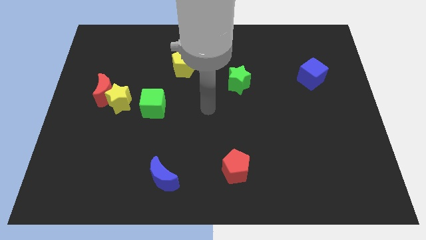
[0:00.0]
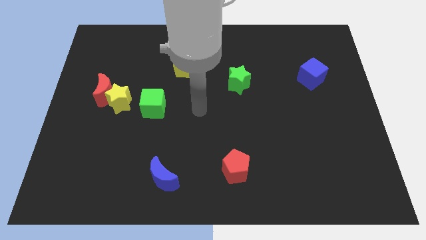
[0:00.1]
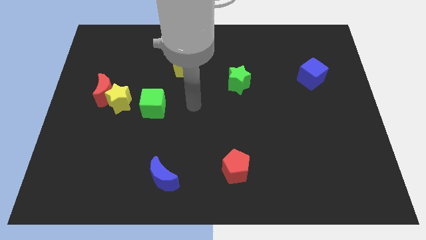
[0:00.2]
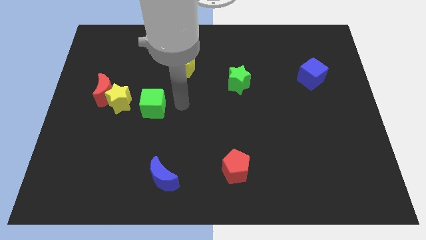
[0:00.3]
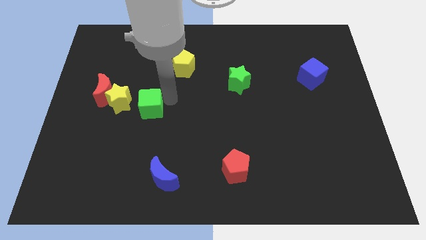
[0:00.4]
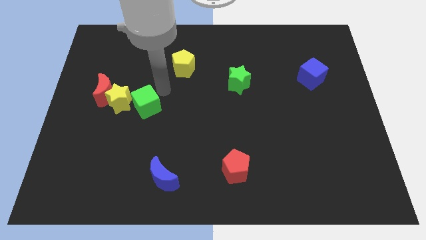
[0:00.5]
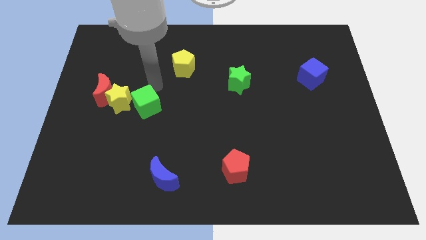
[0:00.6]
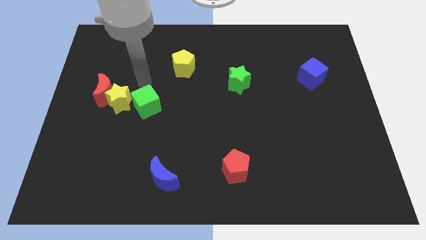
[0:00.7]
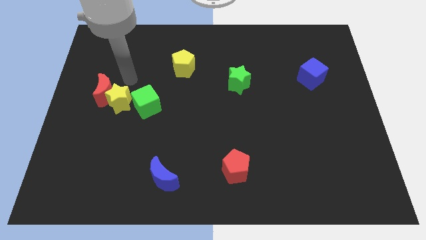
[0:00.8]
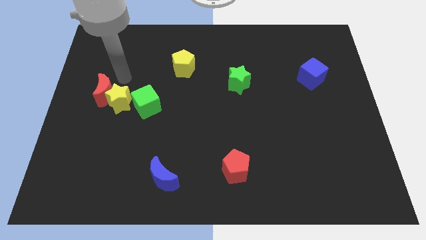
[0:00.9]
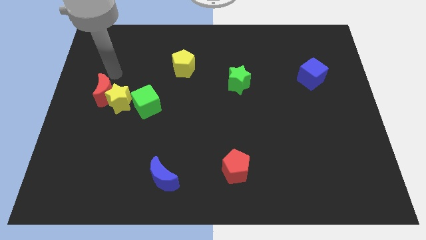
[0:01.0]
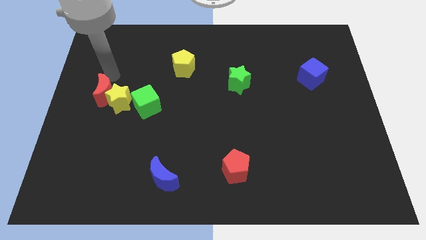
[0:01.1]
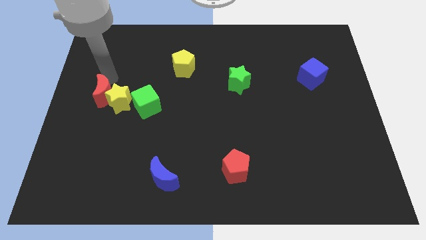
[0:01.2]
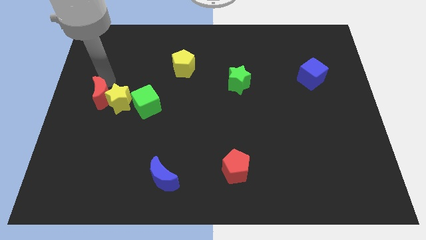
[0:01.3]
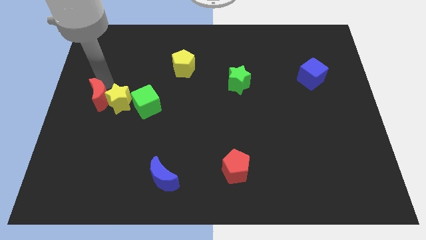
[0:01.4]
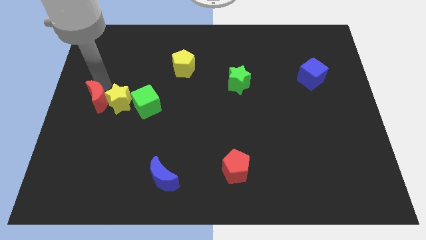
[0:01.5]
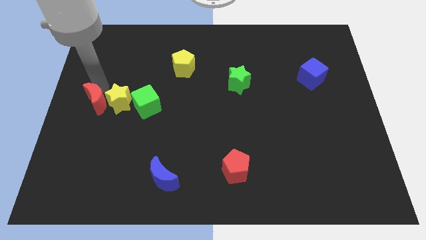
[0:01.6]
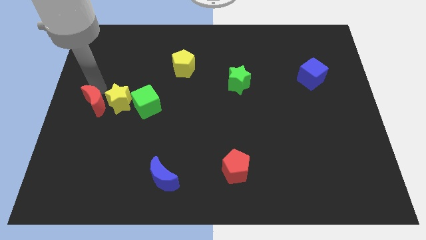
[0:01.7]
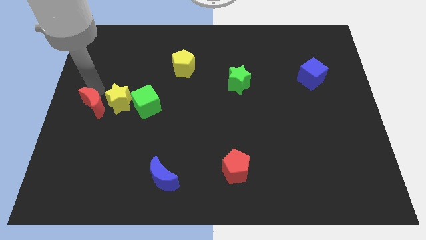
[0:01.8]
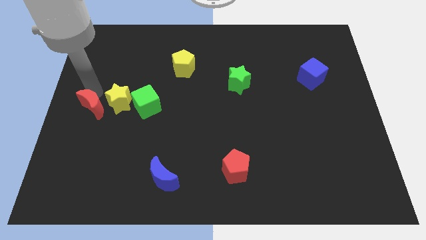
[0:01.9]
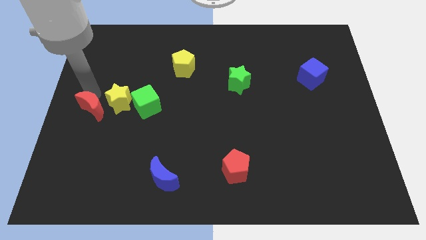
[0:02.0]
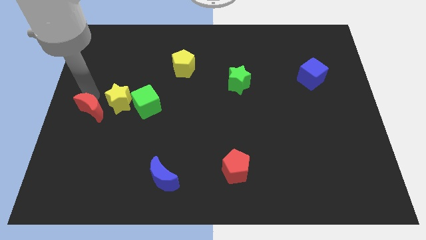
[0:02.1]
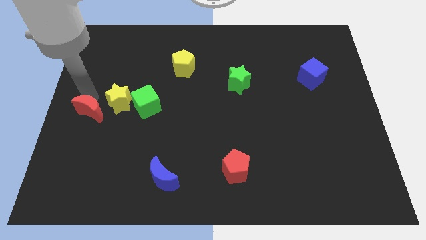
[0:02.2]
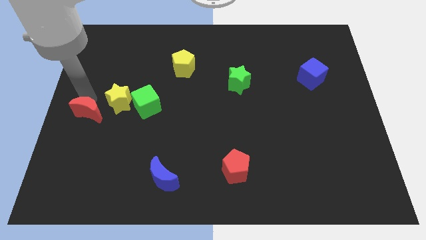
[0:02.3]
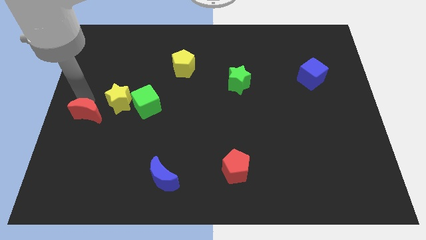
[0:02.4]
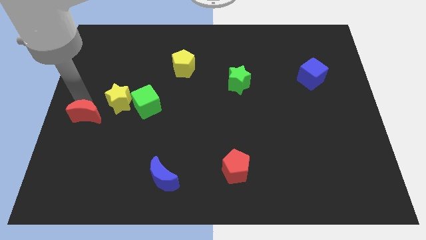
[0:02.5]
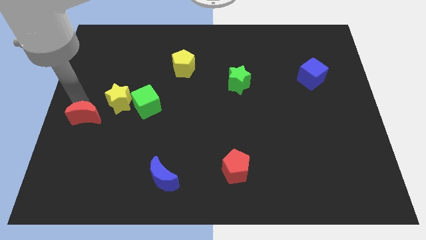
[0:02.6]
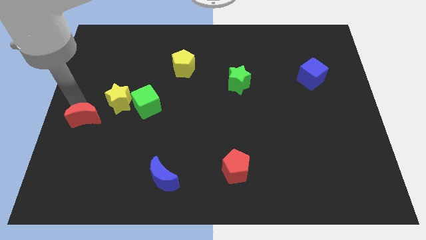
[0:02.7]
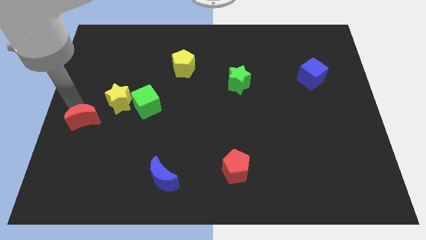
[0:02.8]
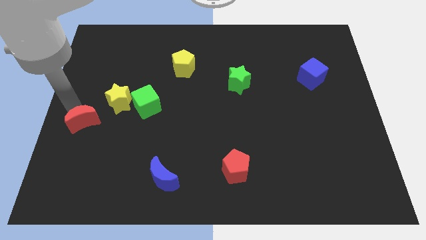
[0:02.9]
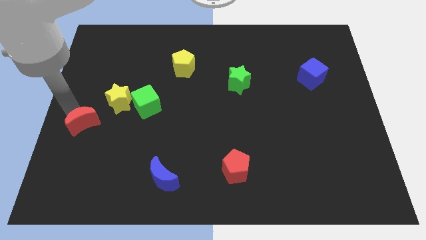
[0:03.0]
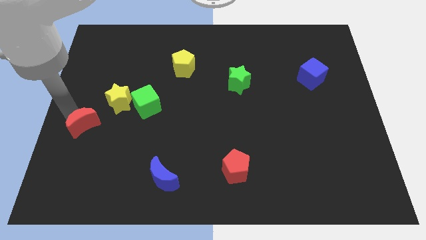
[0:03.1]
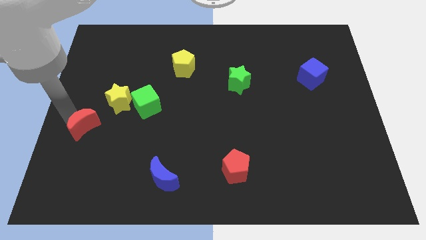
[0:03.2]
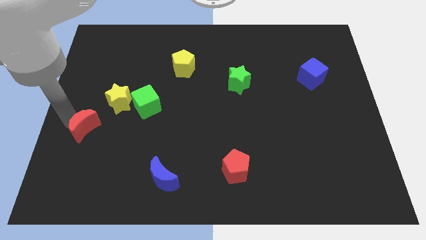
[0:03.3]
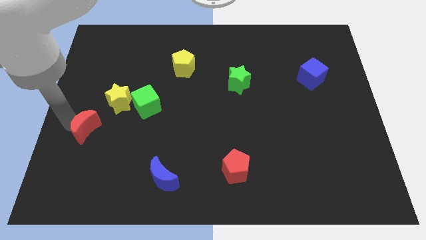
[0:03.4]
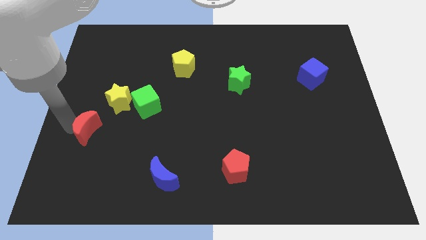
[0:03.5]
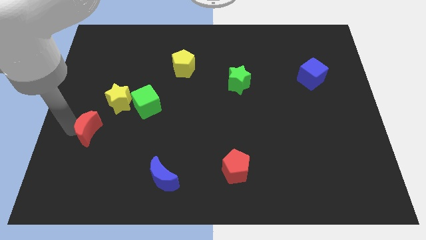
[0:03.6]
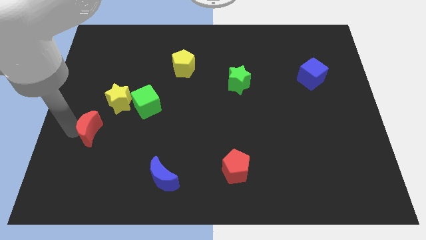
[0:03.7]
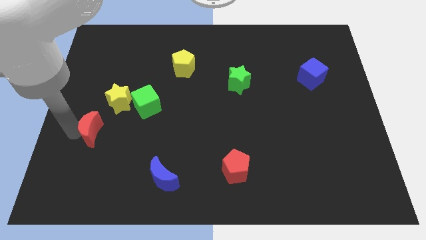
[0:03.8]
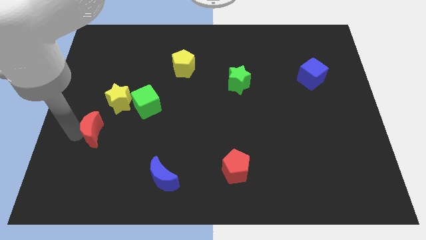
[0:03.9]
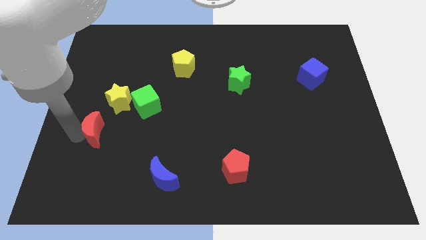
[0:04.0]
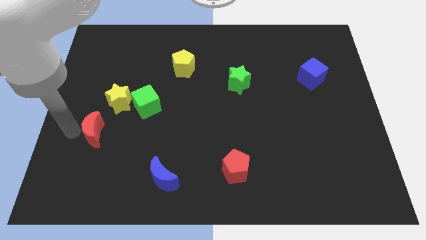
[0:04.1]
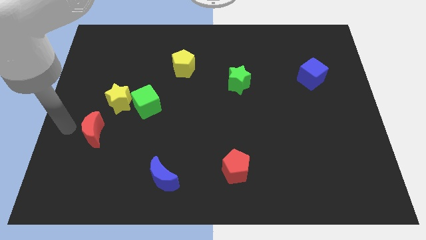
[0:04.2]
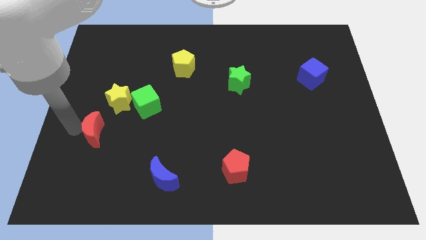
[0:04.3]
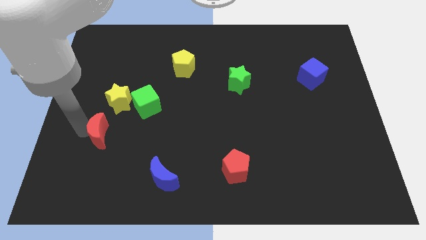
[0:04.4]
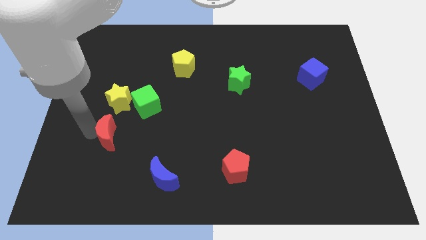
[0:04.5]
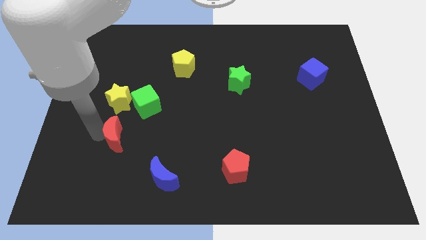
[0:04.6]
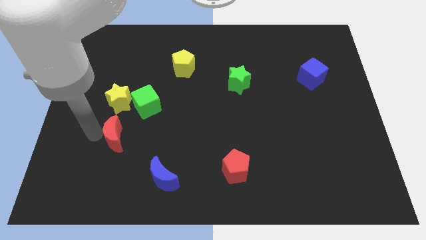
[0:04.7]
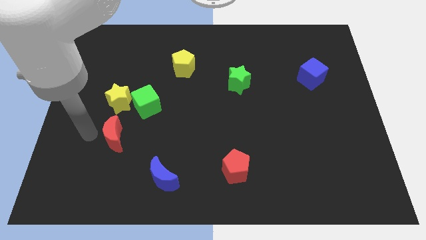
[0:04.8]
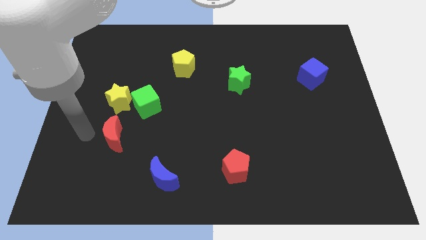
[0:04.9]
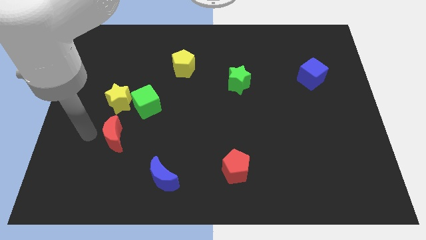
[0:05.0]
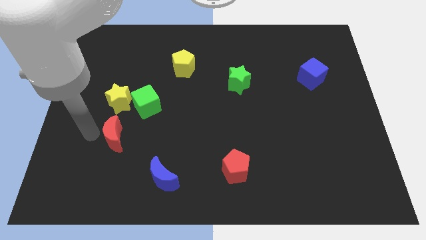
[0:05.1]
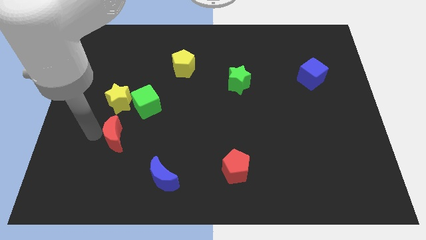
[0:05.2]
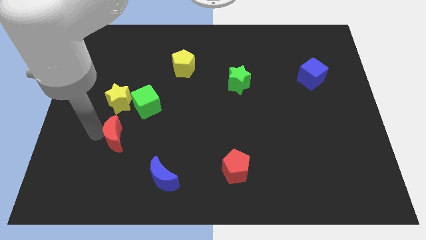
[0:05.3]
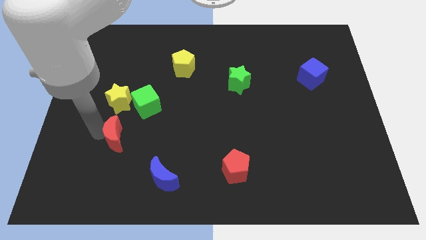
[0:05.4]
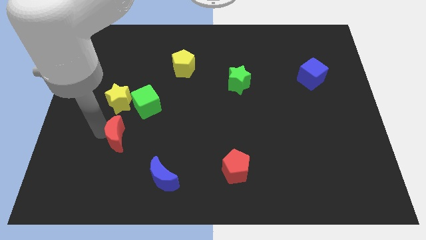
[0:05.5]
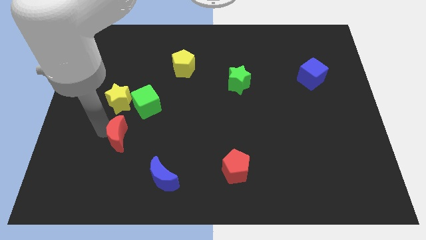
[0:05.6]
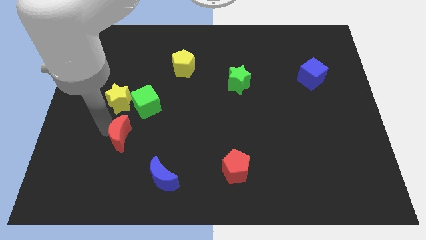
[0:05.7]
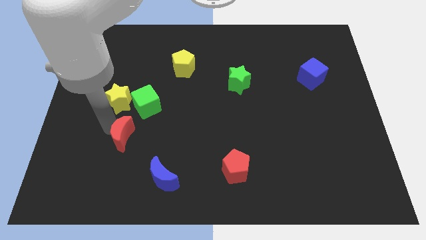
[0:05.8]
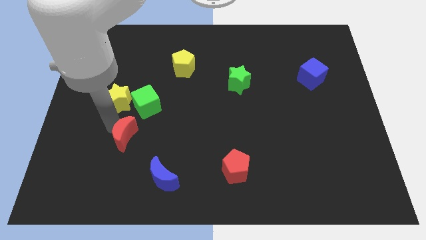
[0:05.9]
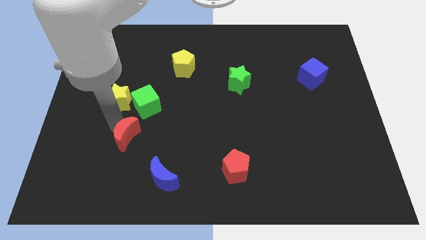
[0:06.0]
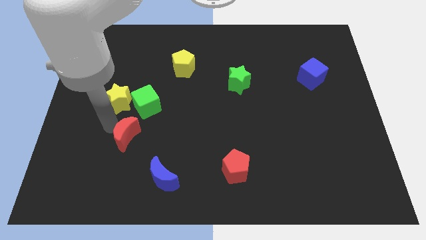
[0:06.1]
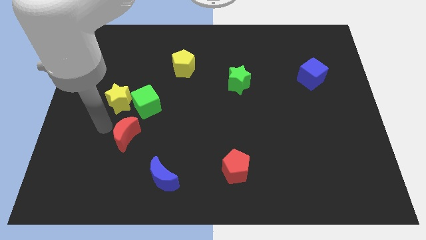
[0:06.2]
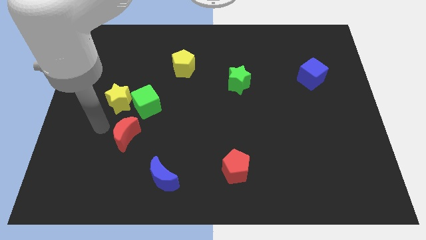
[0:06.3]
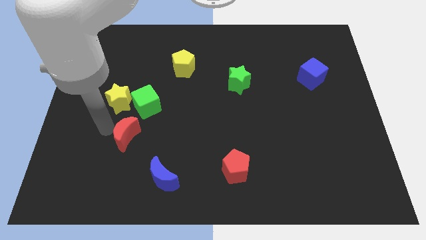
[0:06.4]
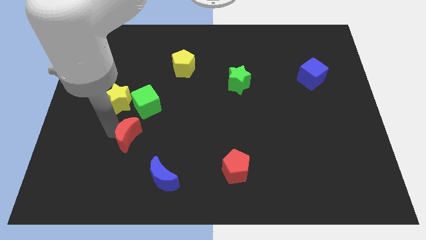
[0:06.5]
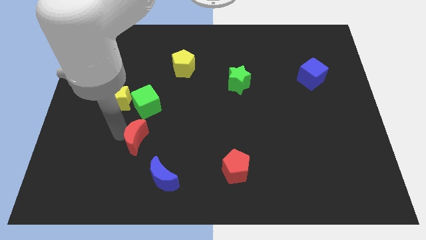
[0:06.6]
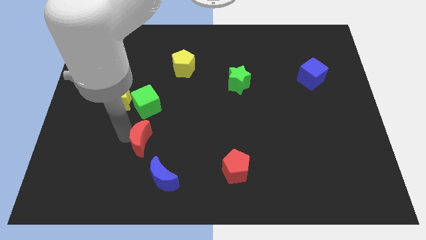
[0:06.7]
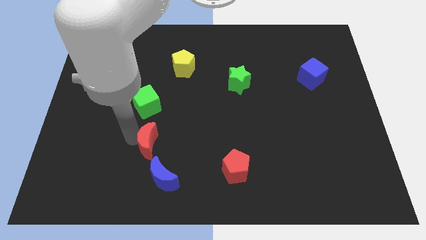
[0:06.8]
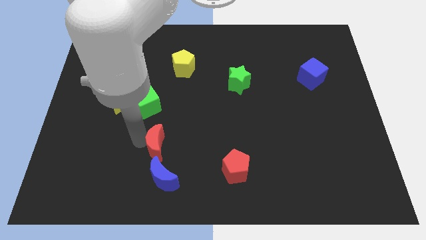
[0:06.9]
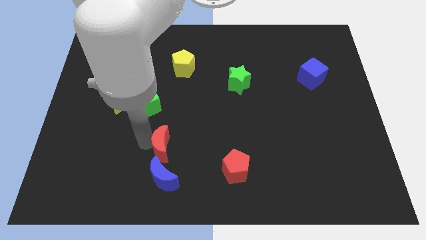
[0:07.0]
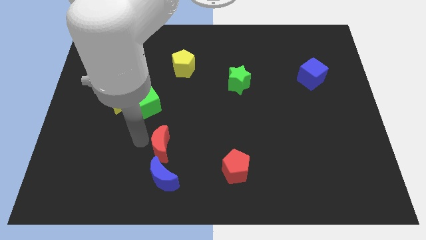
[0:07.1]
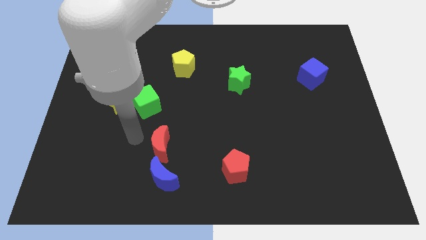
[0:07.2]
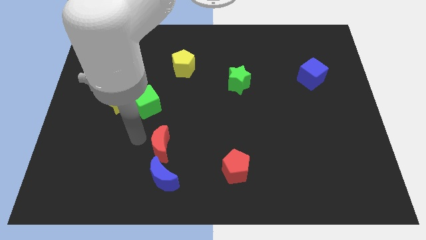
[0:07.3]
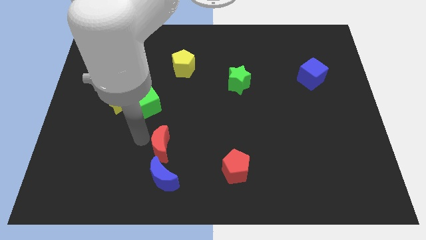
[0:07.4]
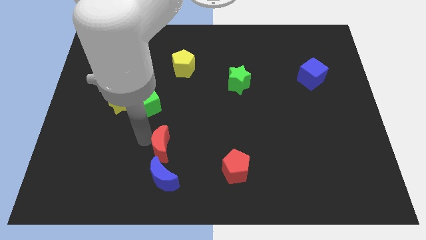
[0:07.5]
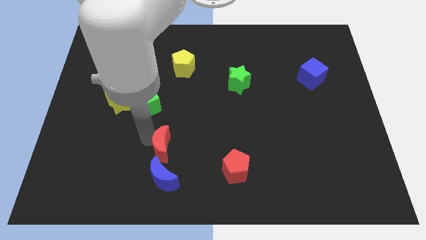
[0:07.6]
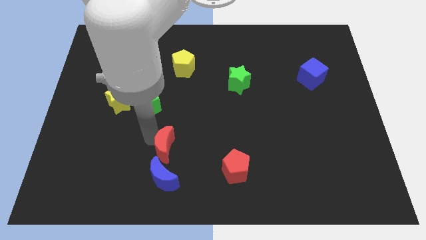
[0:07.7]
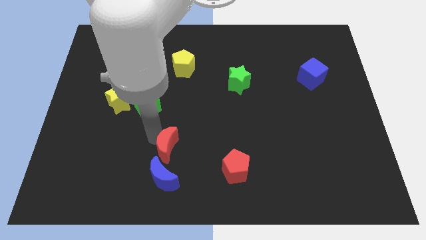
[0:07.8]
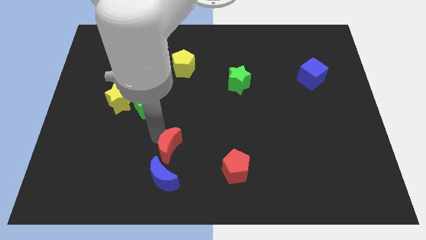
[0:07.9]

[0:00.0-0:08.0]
slide the red moon to the top right of the blue moon
